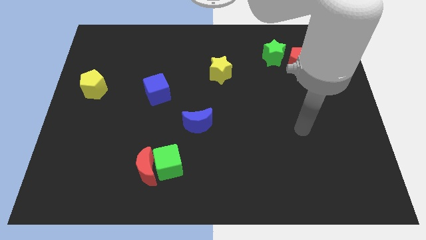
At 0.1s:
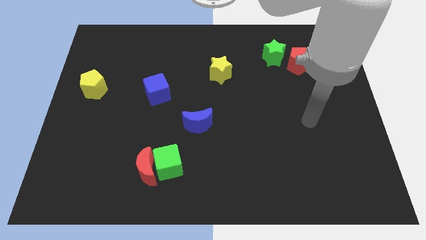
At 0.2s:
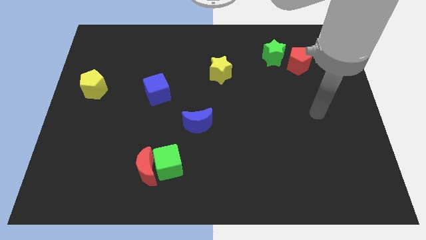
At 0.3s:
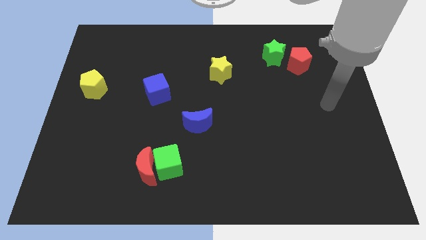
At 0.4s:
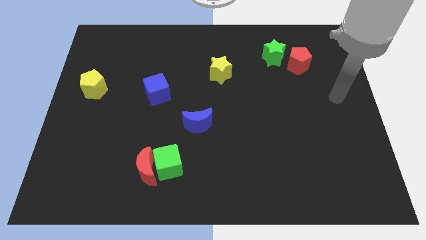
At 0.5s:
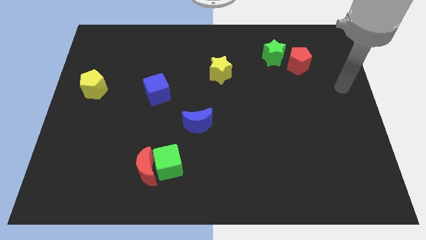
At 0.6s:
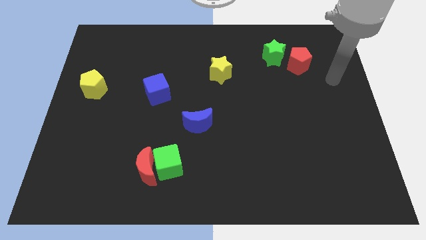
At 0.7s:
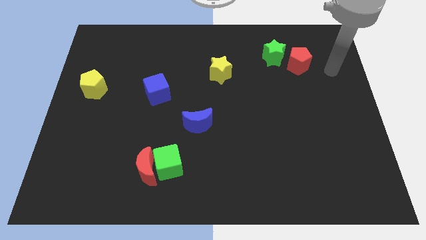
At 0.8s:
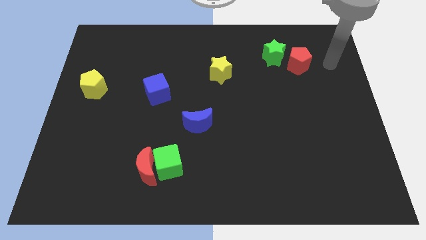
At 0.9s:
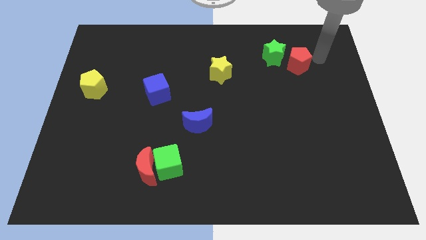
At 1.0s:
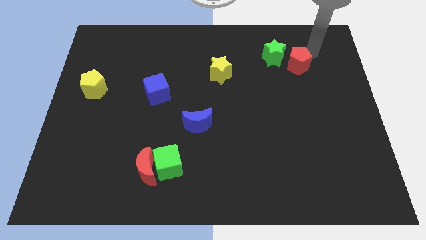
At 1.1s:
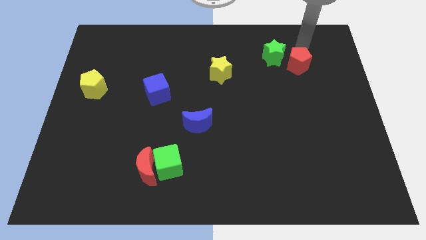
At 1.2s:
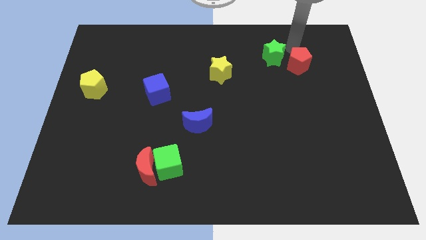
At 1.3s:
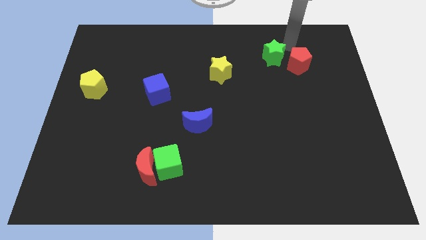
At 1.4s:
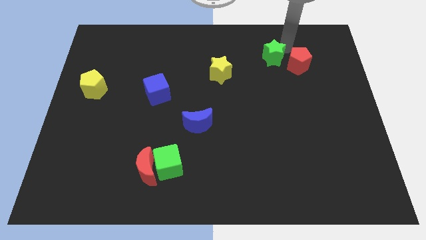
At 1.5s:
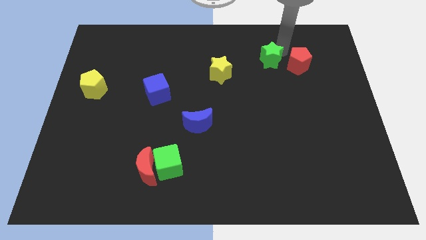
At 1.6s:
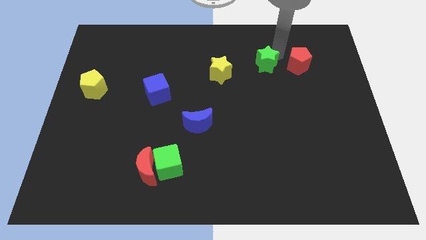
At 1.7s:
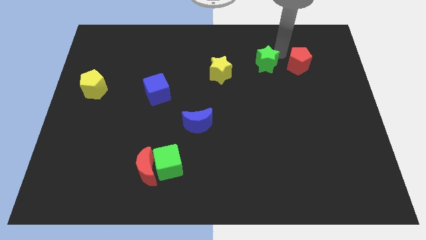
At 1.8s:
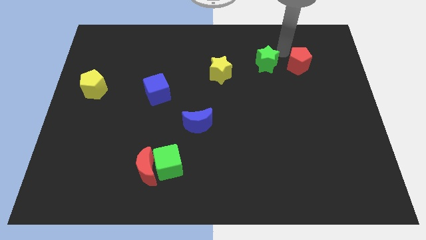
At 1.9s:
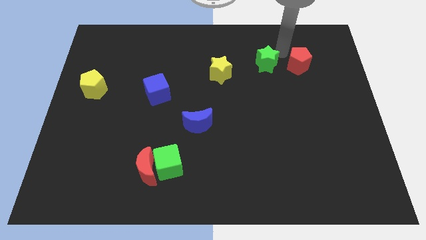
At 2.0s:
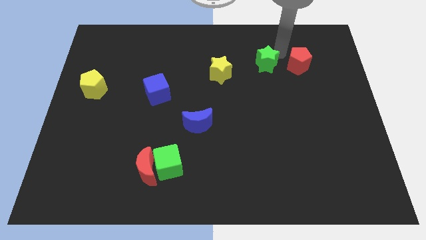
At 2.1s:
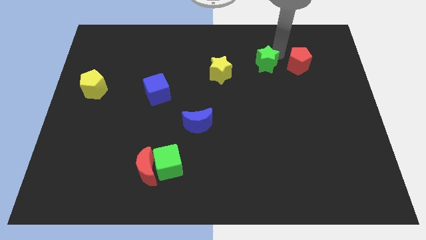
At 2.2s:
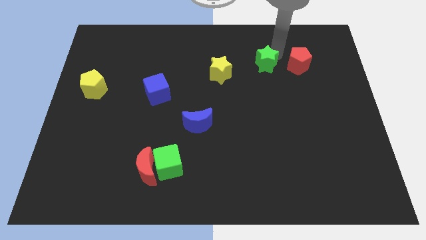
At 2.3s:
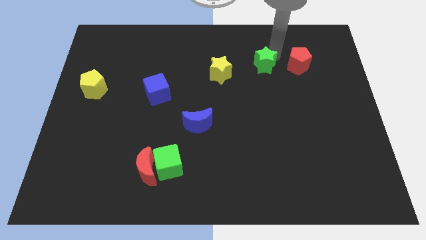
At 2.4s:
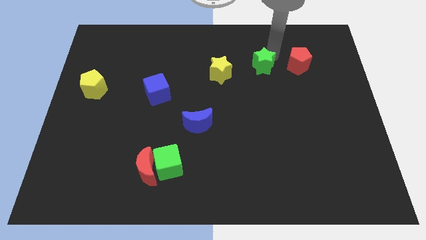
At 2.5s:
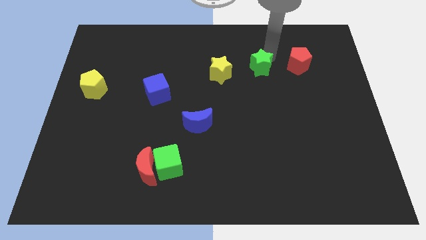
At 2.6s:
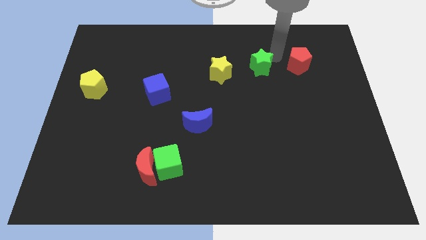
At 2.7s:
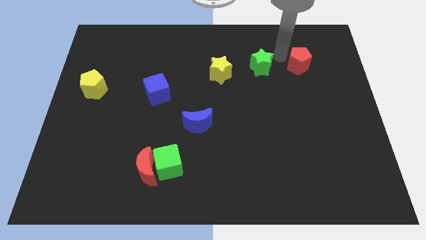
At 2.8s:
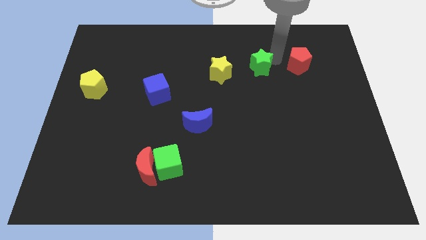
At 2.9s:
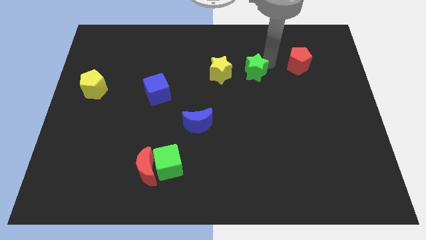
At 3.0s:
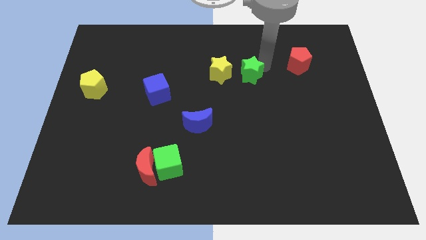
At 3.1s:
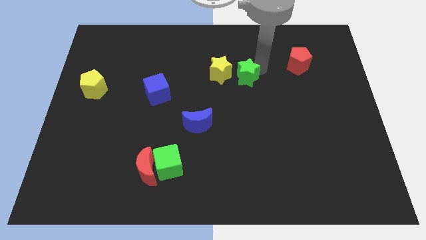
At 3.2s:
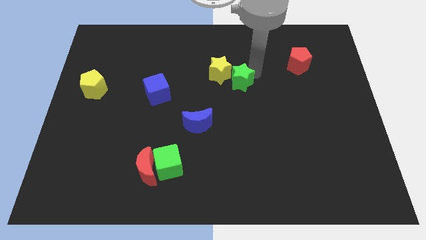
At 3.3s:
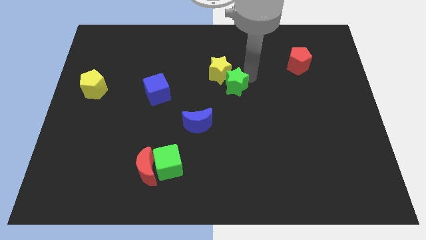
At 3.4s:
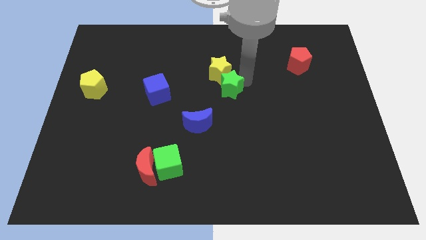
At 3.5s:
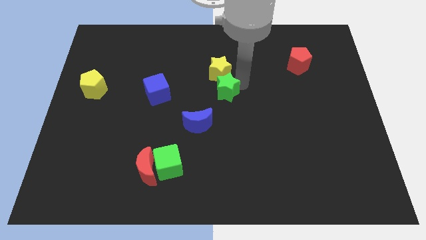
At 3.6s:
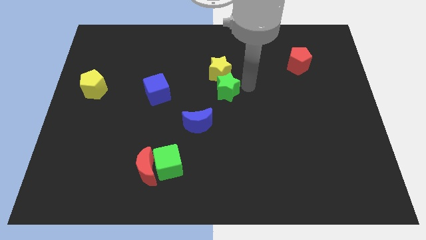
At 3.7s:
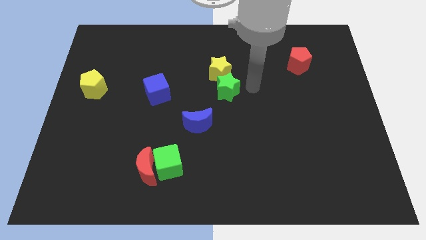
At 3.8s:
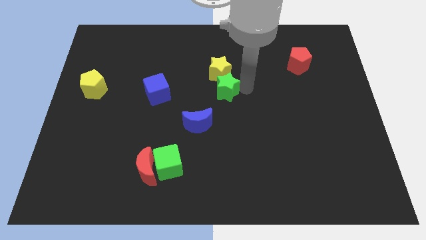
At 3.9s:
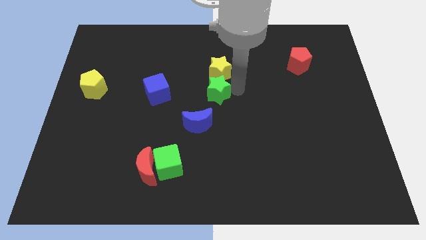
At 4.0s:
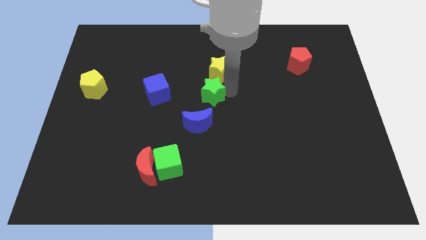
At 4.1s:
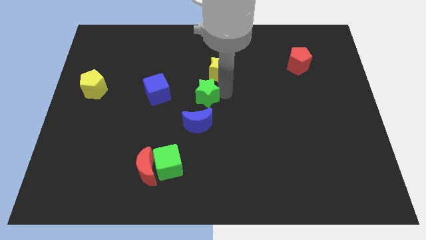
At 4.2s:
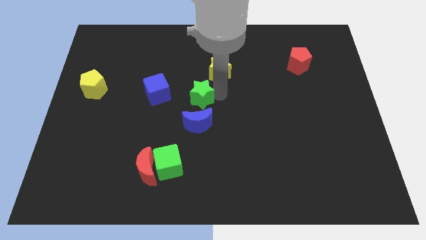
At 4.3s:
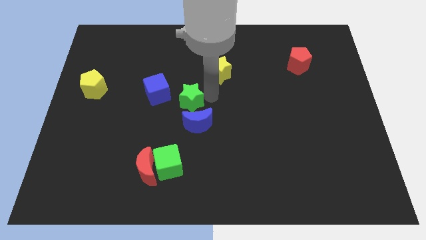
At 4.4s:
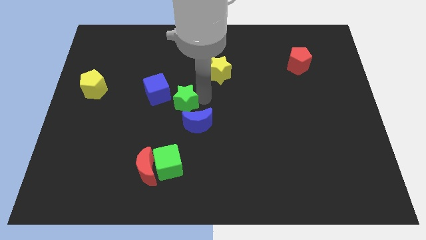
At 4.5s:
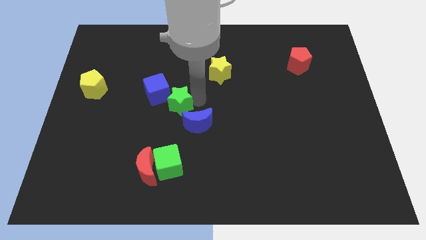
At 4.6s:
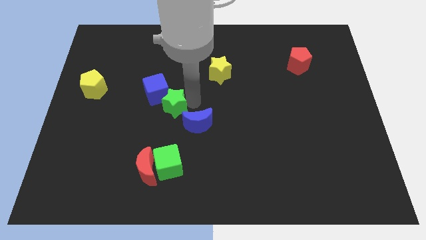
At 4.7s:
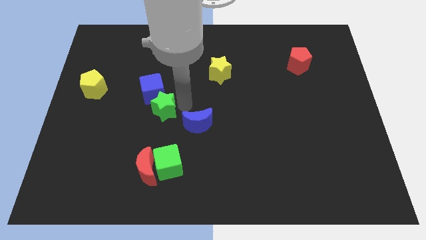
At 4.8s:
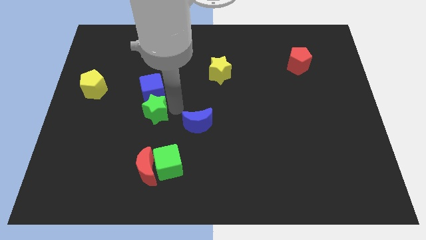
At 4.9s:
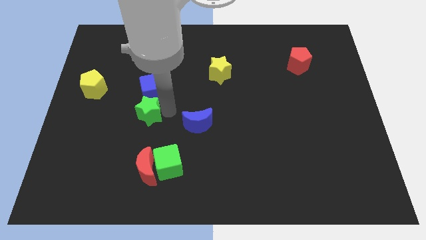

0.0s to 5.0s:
move the green star diagonally down and to the left of the blue cube

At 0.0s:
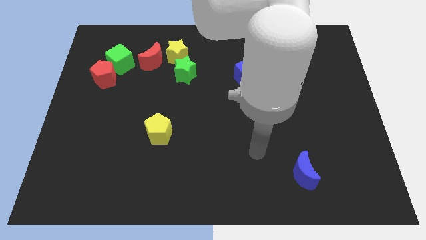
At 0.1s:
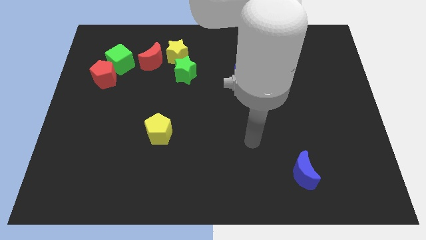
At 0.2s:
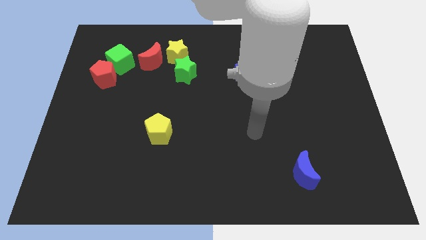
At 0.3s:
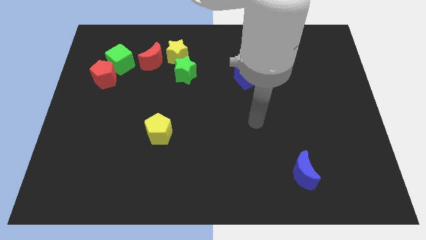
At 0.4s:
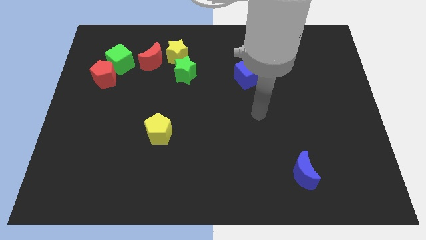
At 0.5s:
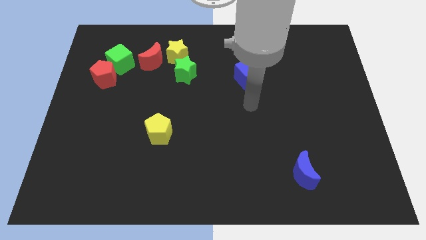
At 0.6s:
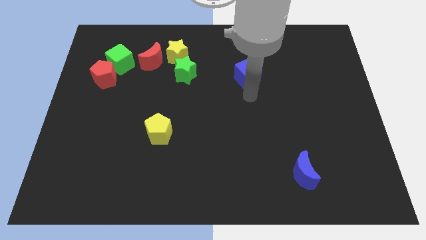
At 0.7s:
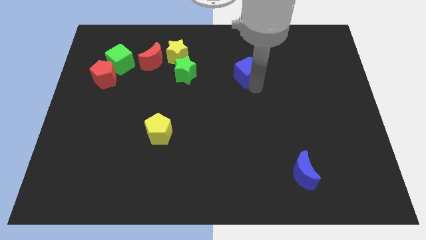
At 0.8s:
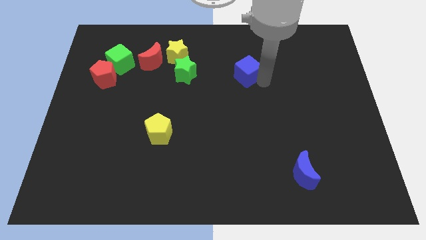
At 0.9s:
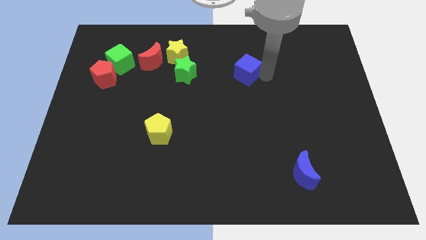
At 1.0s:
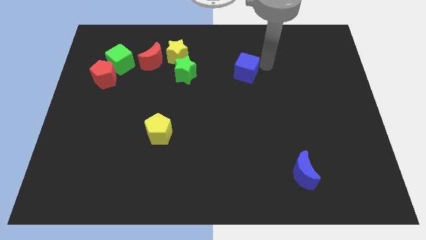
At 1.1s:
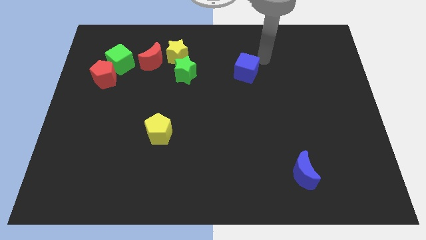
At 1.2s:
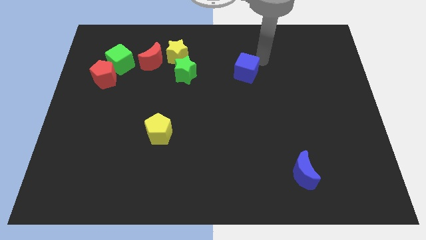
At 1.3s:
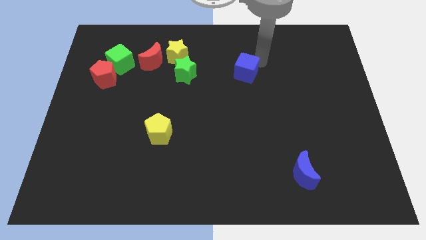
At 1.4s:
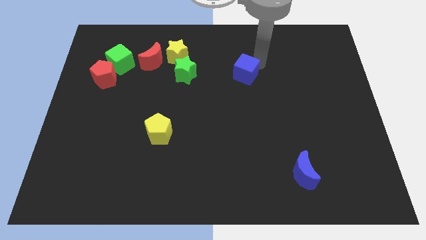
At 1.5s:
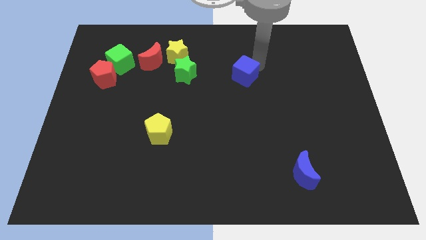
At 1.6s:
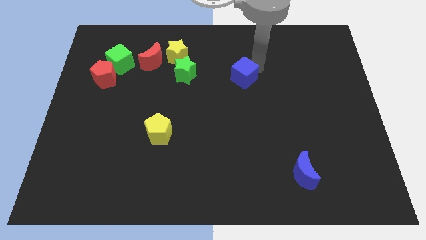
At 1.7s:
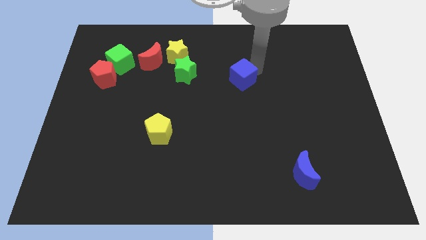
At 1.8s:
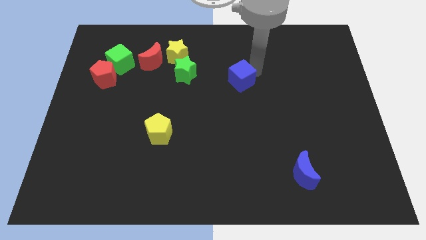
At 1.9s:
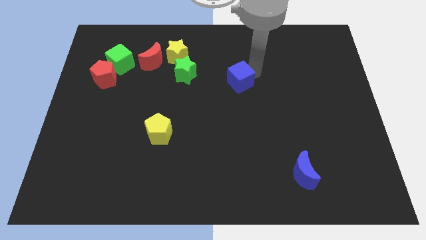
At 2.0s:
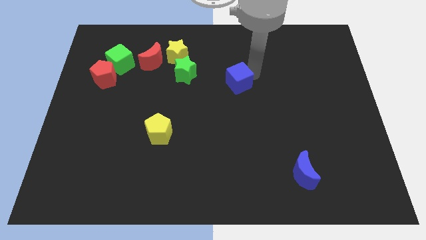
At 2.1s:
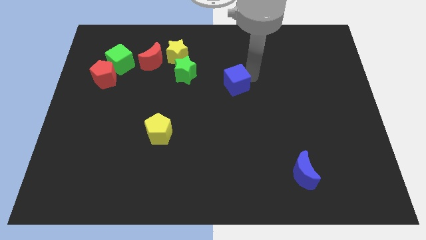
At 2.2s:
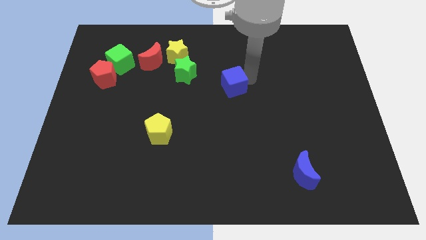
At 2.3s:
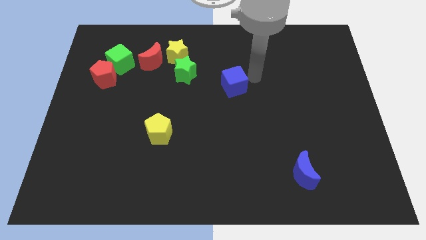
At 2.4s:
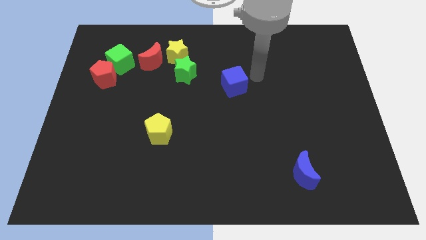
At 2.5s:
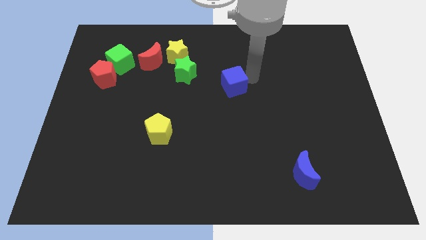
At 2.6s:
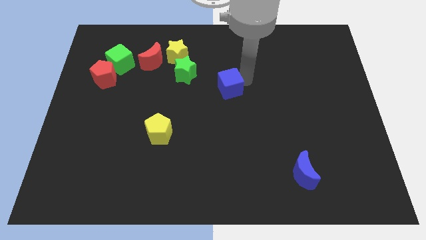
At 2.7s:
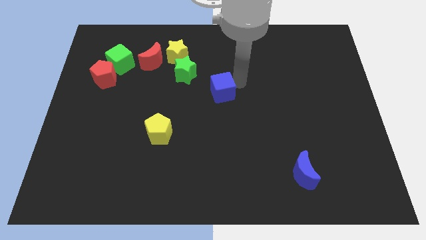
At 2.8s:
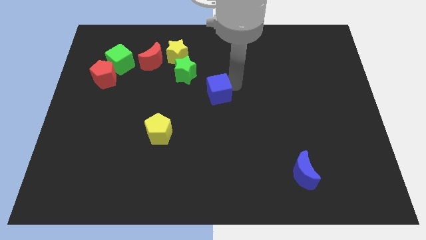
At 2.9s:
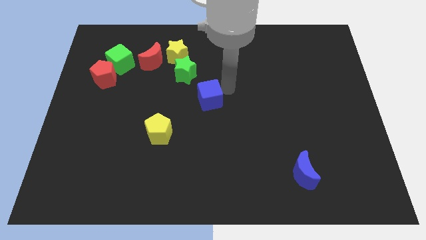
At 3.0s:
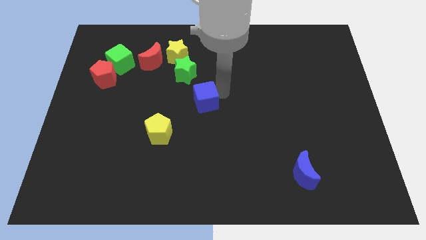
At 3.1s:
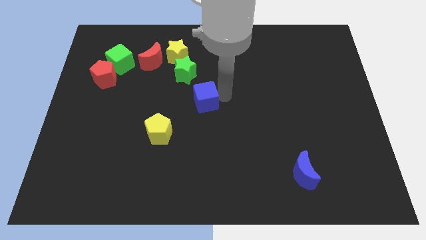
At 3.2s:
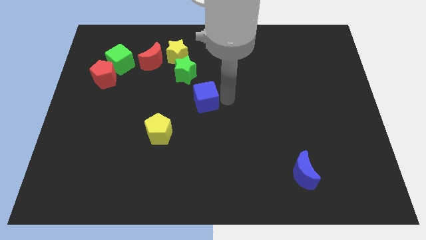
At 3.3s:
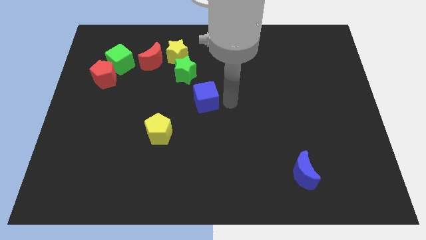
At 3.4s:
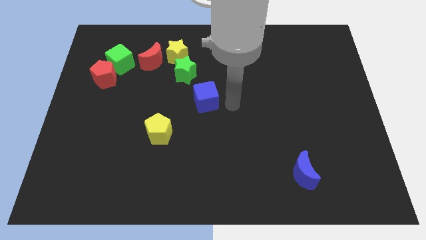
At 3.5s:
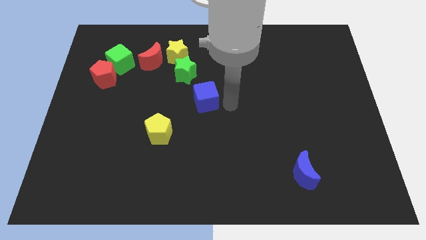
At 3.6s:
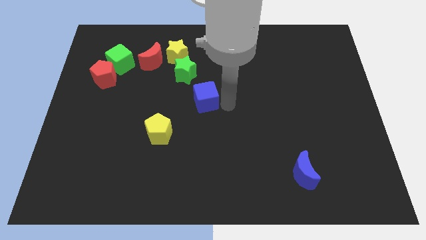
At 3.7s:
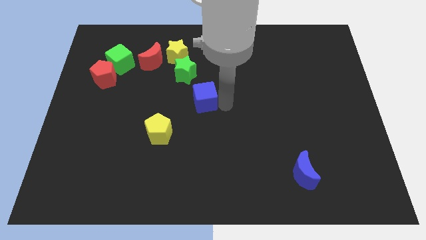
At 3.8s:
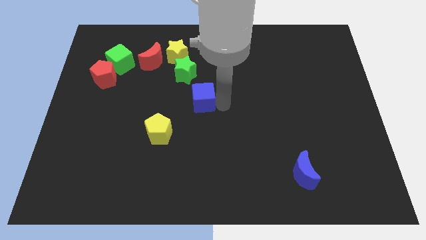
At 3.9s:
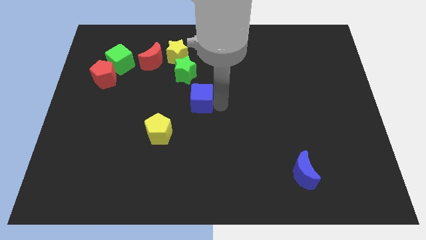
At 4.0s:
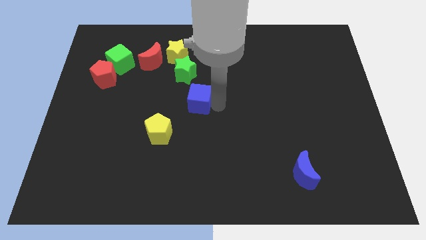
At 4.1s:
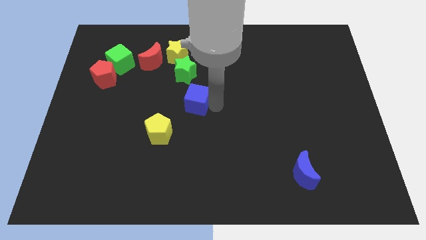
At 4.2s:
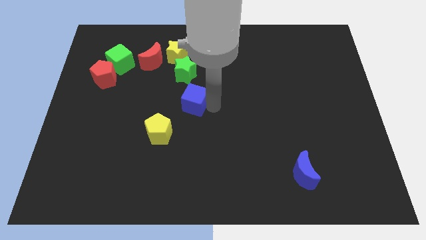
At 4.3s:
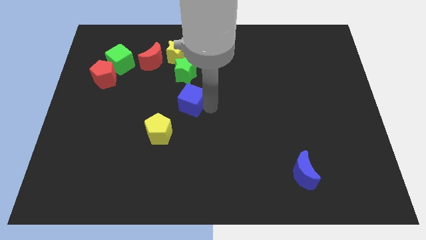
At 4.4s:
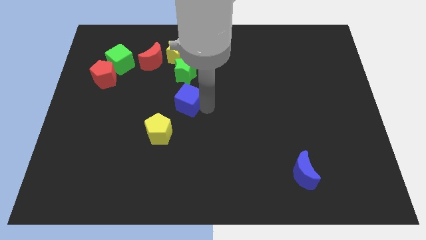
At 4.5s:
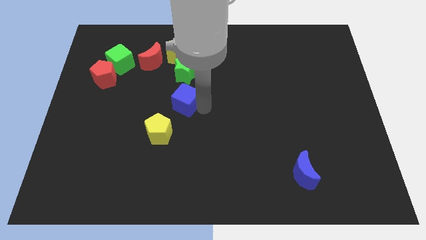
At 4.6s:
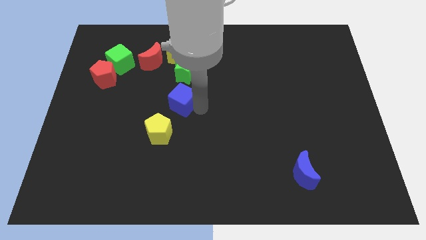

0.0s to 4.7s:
slide the blue cube below the yellow star
